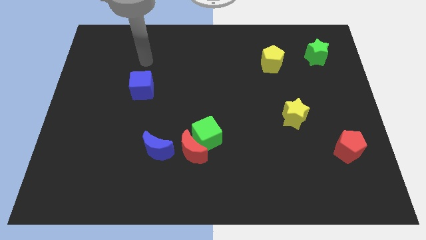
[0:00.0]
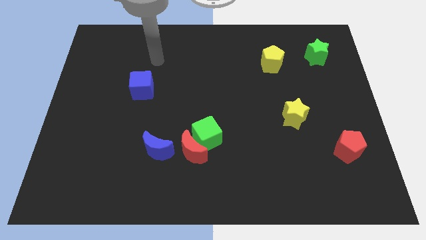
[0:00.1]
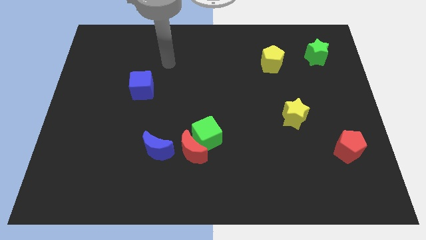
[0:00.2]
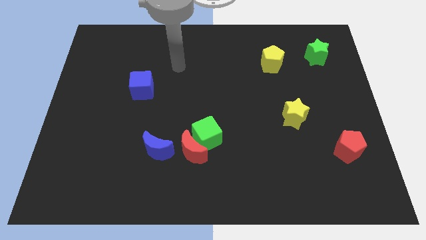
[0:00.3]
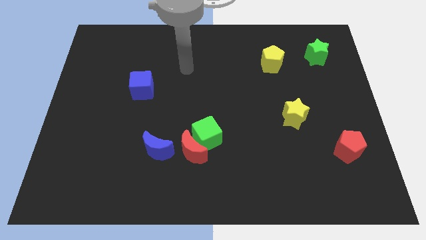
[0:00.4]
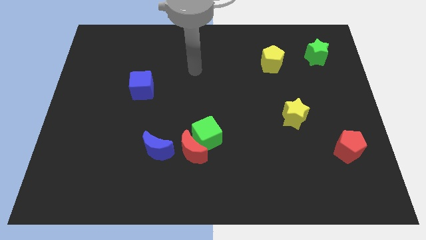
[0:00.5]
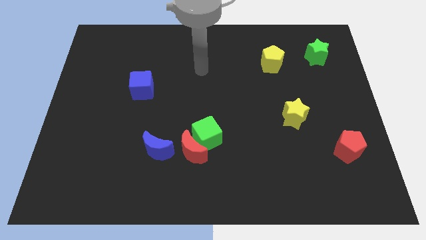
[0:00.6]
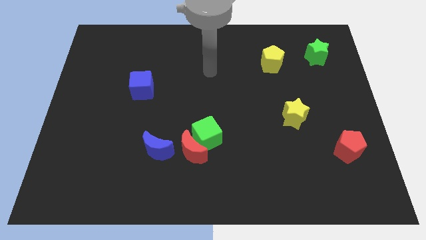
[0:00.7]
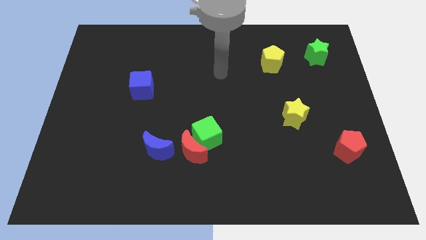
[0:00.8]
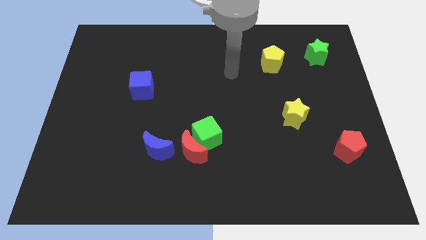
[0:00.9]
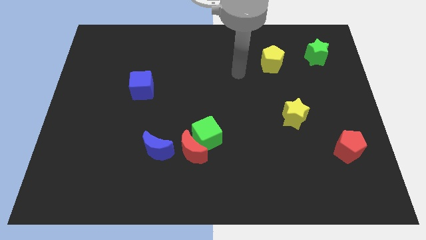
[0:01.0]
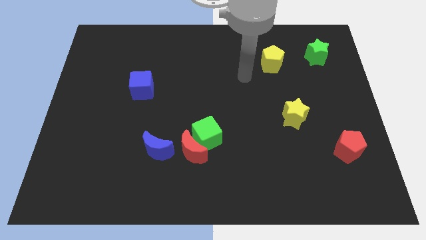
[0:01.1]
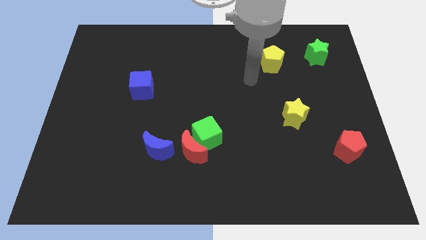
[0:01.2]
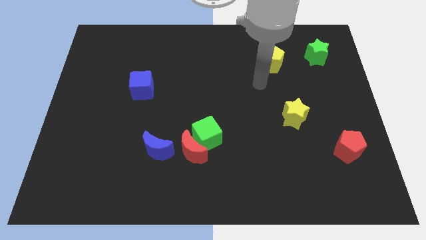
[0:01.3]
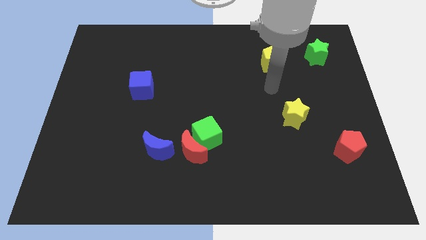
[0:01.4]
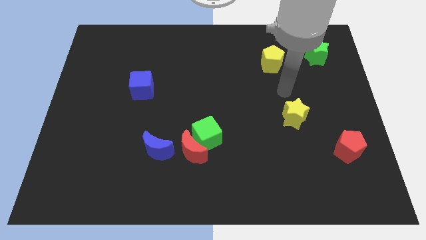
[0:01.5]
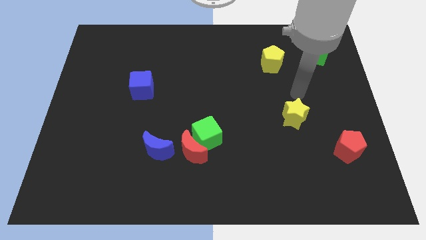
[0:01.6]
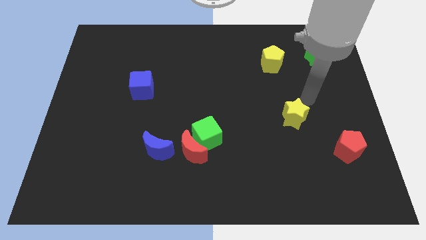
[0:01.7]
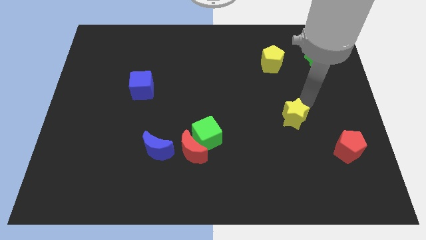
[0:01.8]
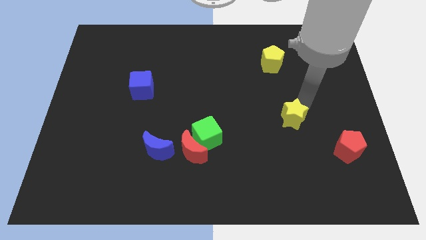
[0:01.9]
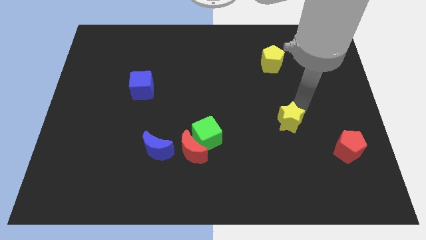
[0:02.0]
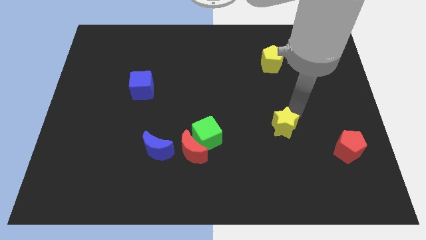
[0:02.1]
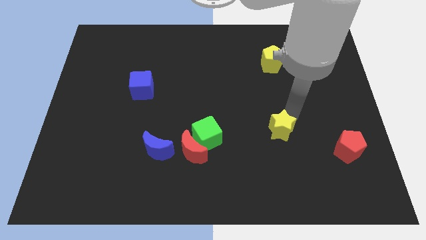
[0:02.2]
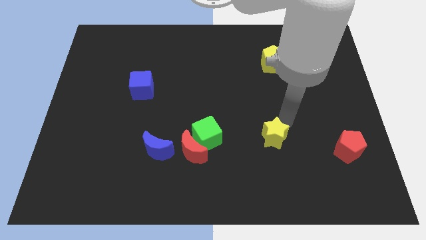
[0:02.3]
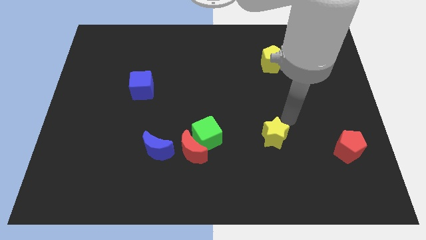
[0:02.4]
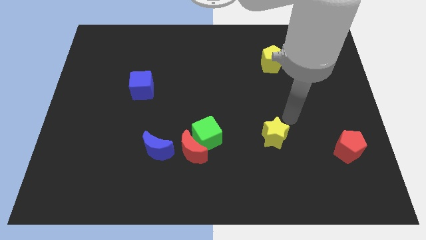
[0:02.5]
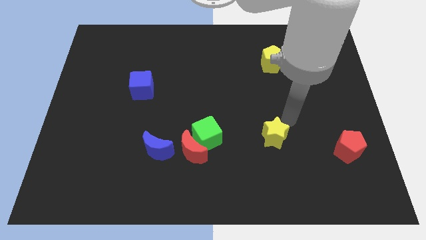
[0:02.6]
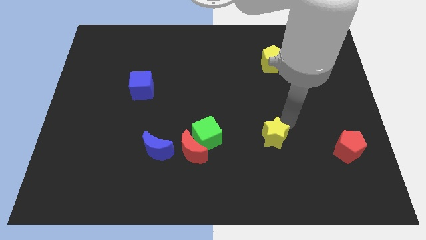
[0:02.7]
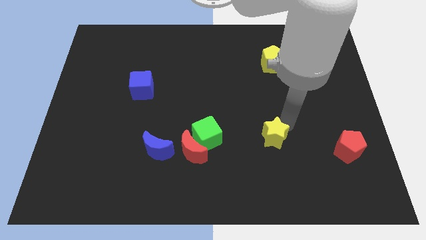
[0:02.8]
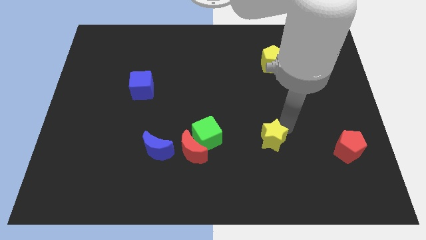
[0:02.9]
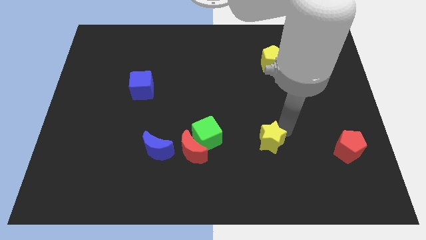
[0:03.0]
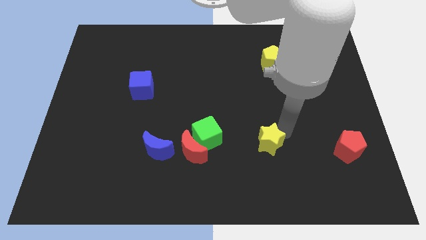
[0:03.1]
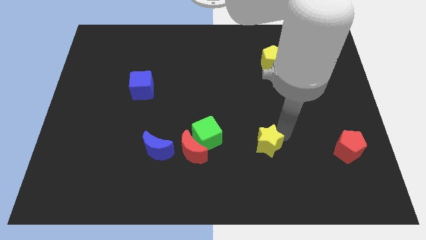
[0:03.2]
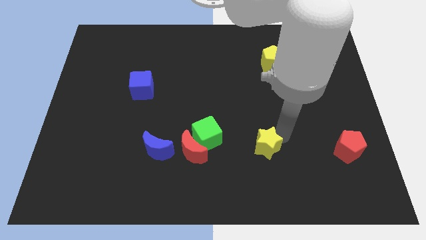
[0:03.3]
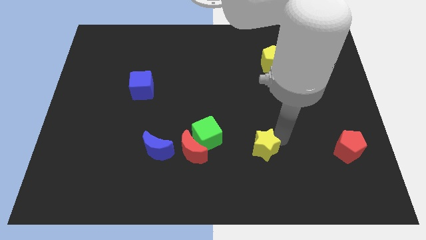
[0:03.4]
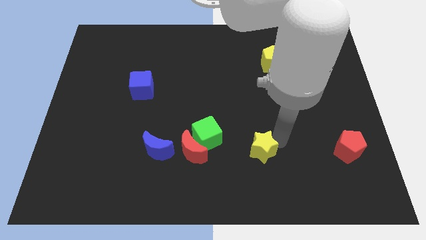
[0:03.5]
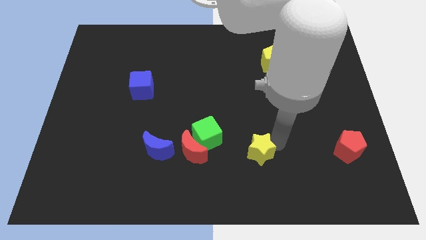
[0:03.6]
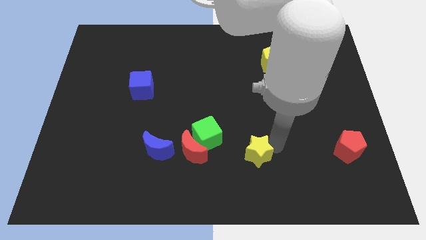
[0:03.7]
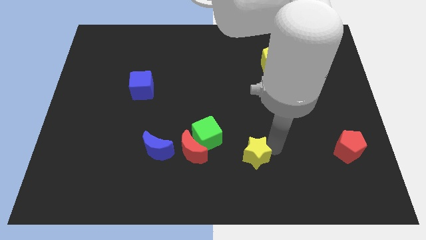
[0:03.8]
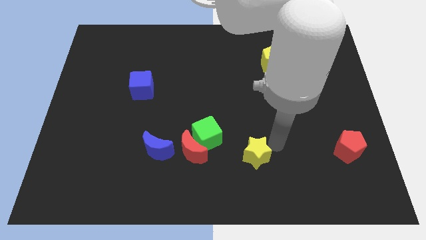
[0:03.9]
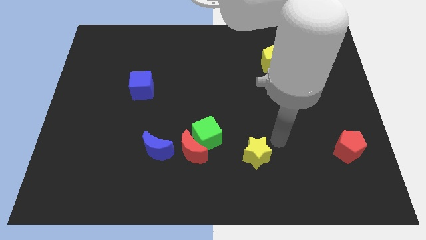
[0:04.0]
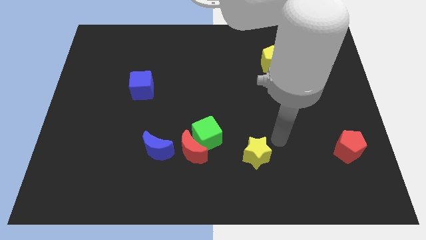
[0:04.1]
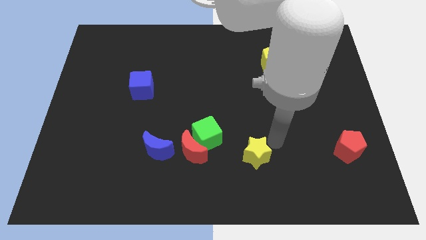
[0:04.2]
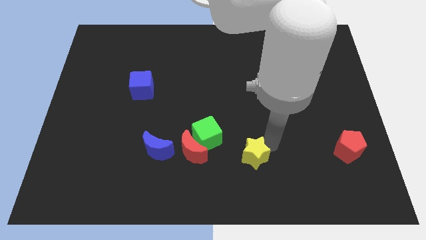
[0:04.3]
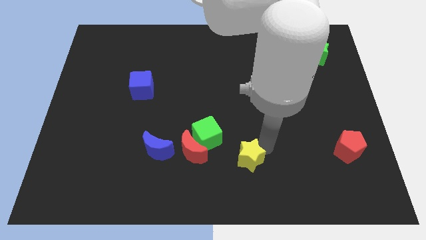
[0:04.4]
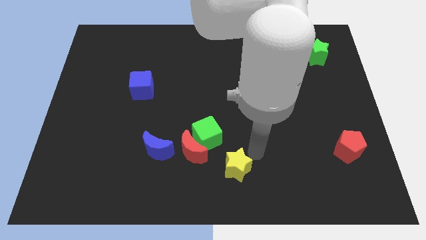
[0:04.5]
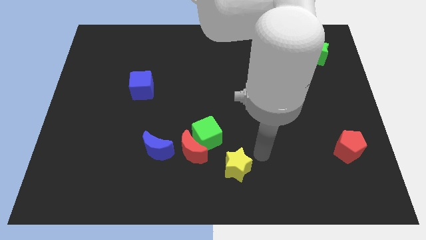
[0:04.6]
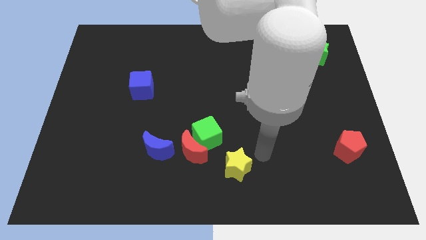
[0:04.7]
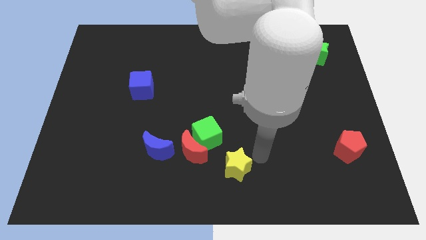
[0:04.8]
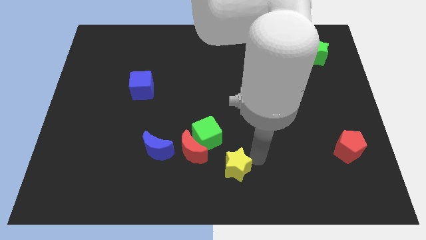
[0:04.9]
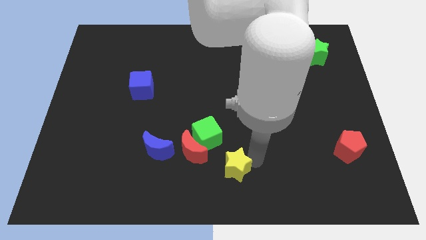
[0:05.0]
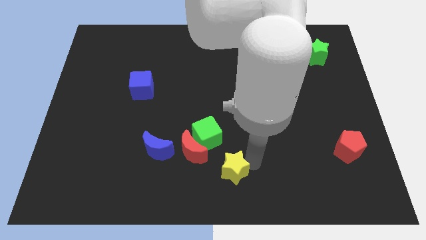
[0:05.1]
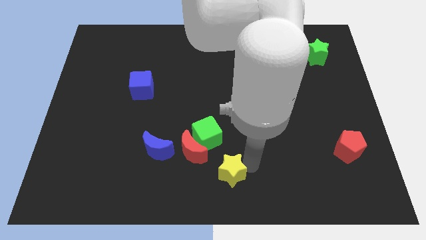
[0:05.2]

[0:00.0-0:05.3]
push the yellow star to the bottom side of the green cube

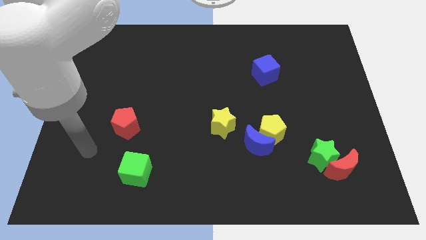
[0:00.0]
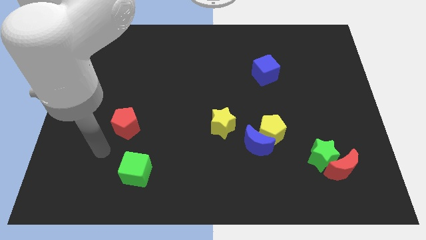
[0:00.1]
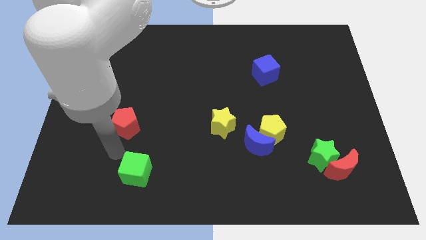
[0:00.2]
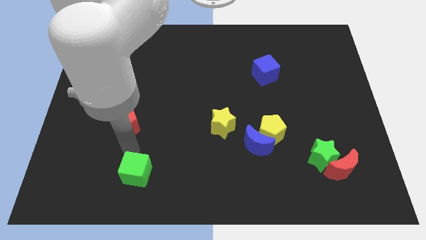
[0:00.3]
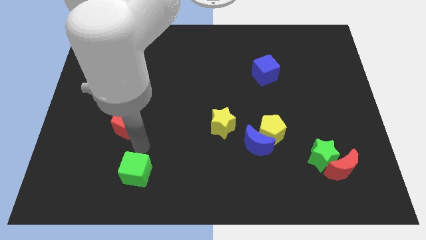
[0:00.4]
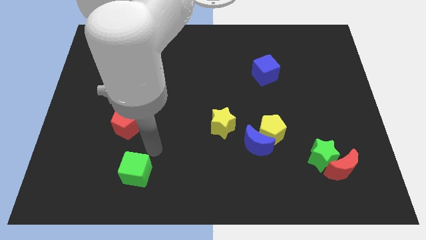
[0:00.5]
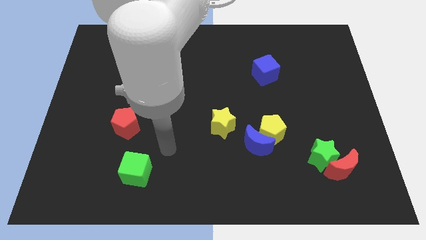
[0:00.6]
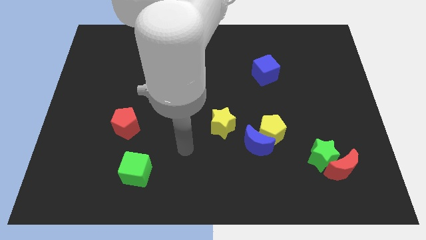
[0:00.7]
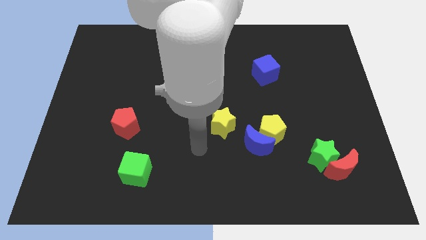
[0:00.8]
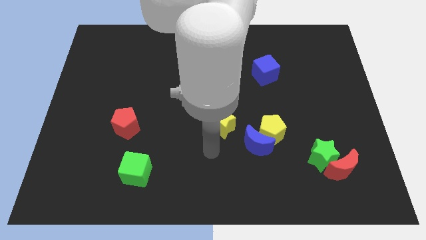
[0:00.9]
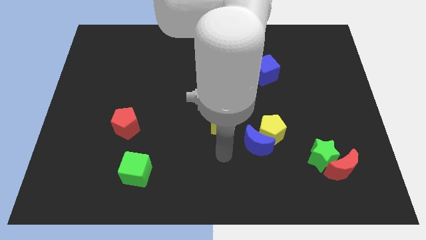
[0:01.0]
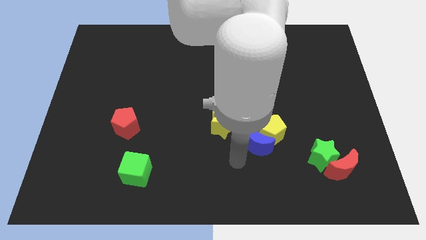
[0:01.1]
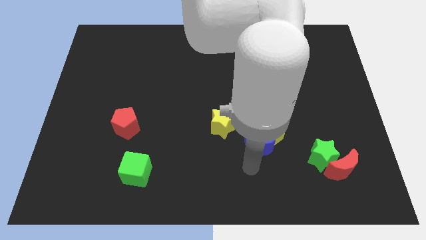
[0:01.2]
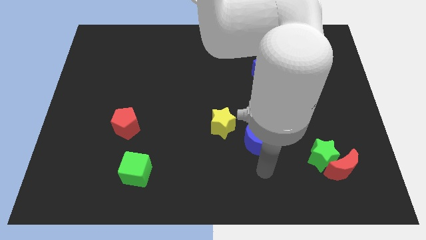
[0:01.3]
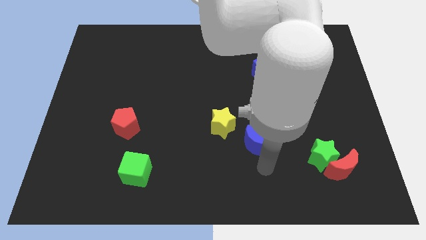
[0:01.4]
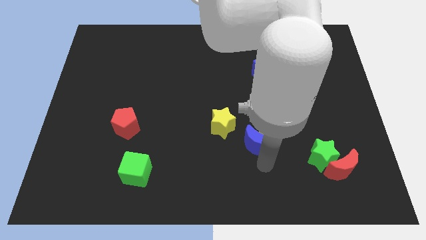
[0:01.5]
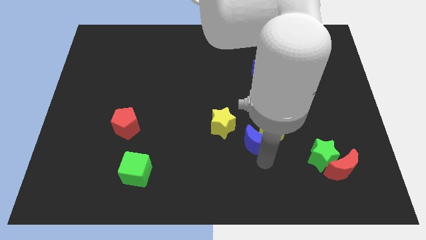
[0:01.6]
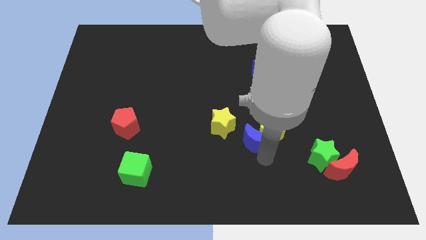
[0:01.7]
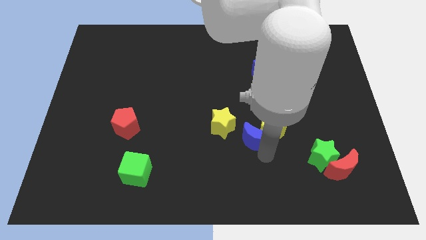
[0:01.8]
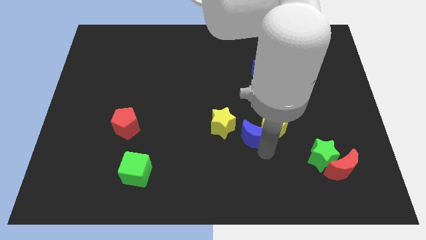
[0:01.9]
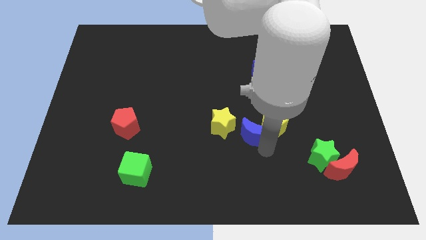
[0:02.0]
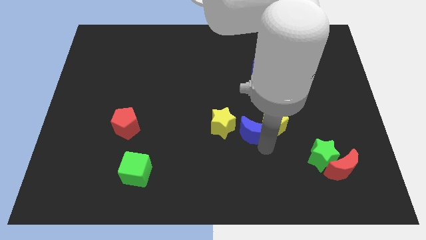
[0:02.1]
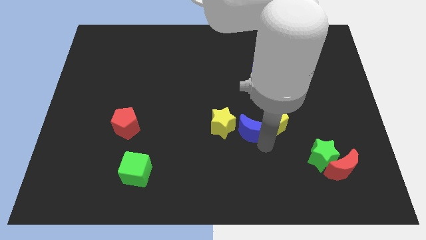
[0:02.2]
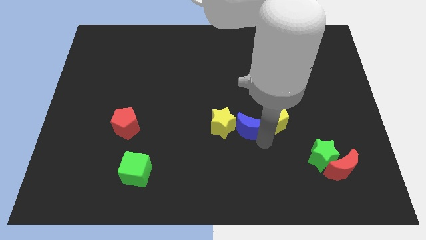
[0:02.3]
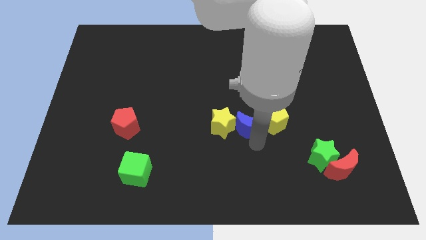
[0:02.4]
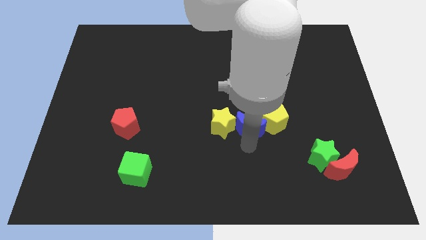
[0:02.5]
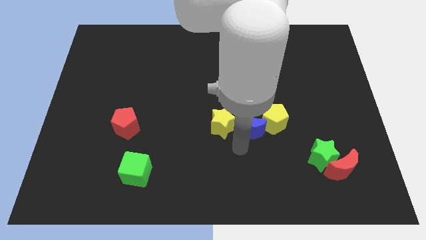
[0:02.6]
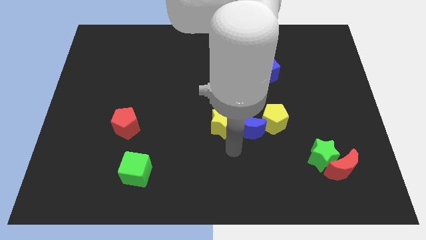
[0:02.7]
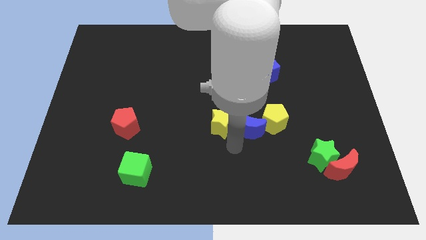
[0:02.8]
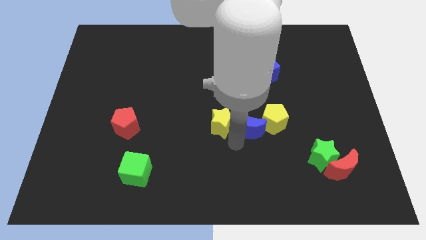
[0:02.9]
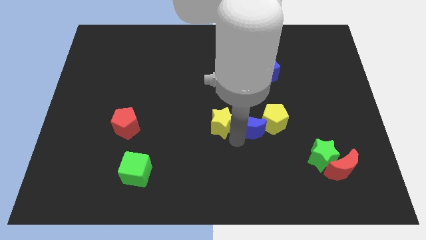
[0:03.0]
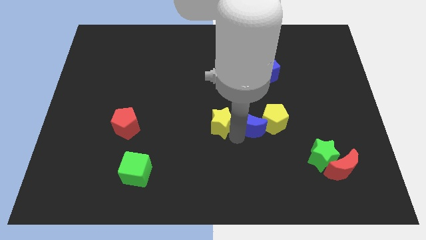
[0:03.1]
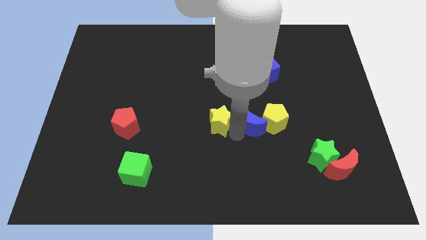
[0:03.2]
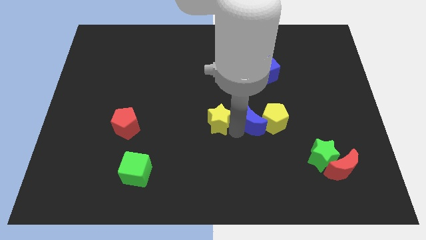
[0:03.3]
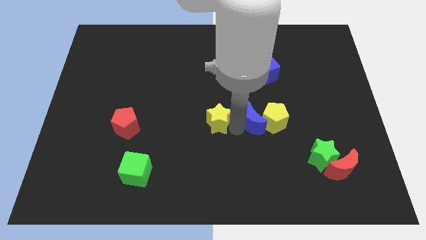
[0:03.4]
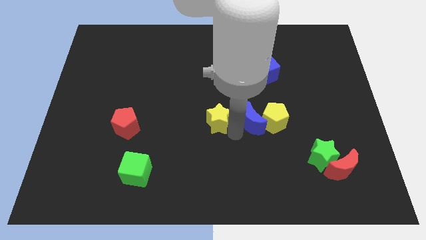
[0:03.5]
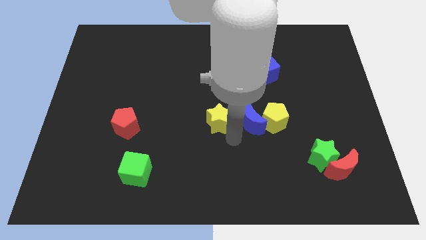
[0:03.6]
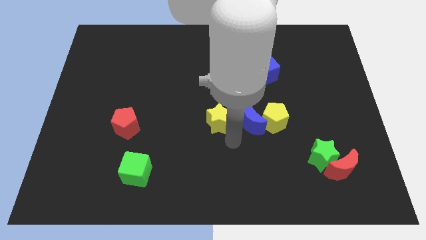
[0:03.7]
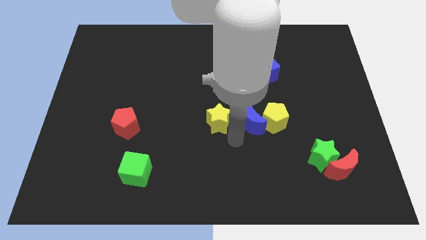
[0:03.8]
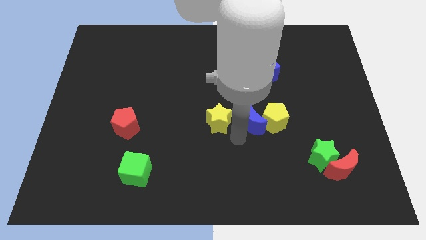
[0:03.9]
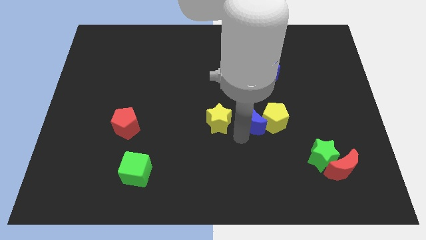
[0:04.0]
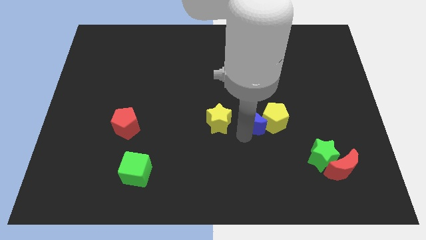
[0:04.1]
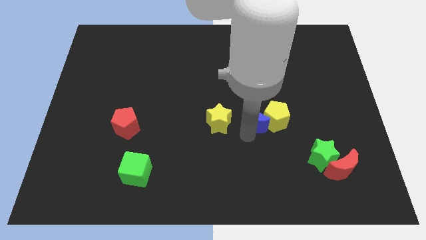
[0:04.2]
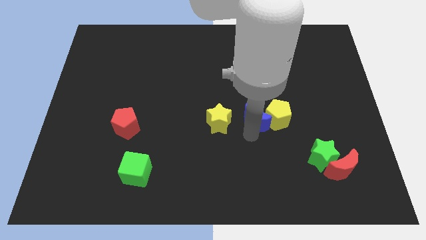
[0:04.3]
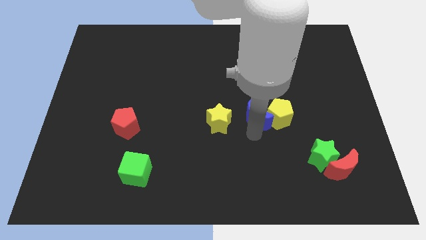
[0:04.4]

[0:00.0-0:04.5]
slide the blue moon below the blue cube
